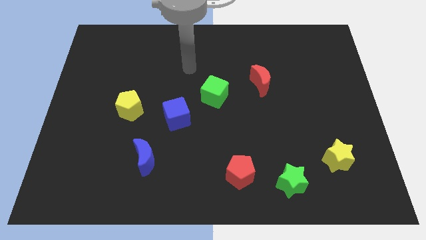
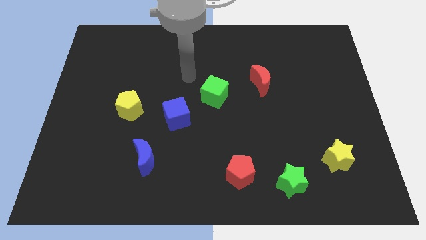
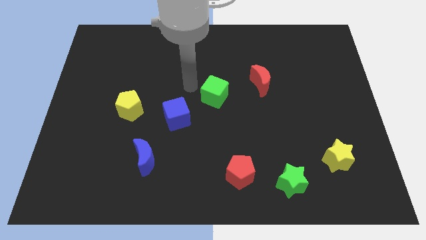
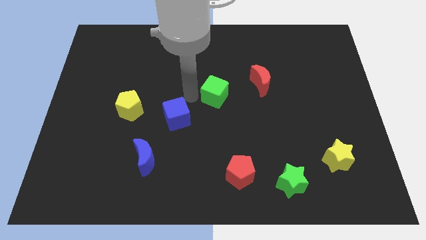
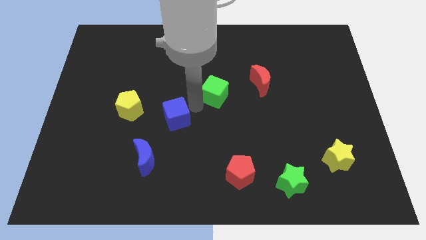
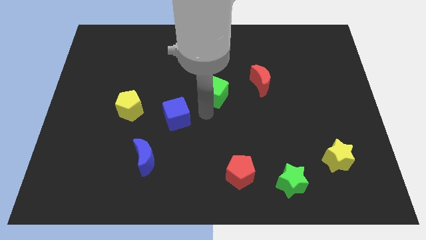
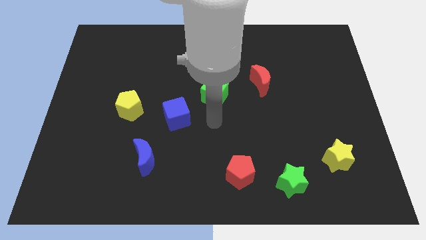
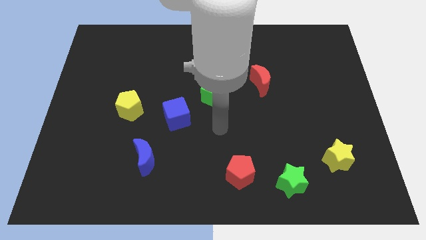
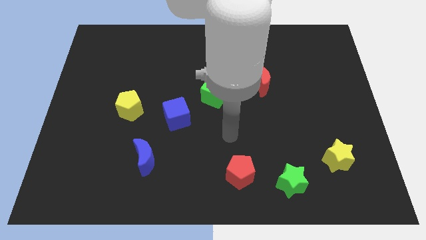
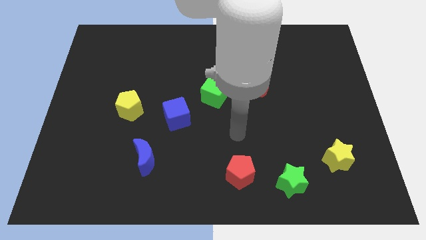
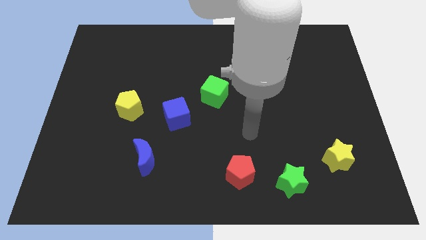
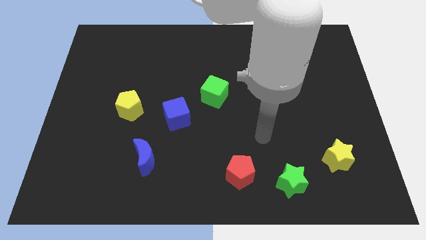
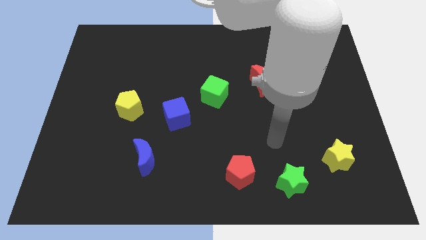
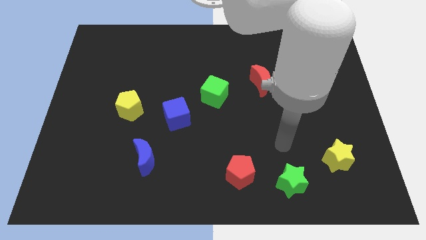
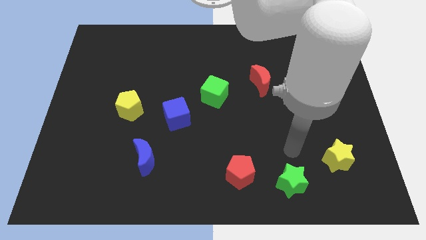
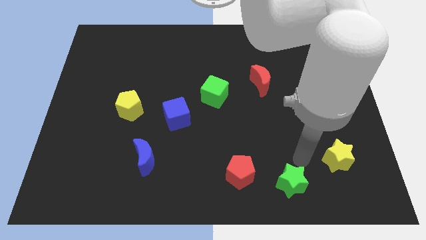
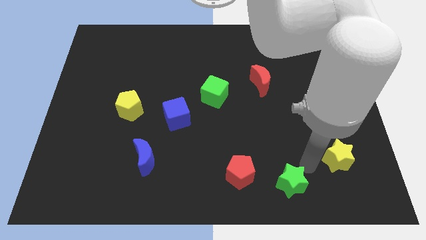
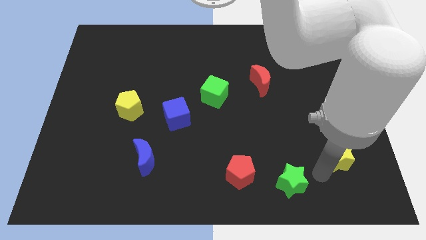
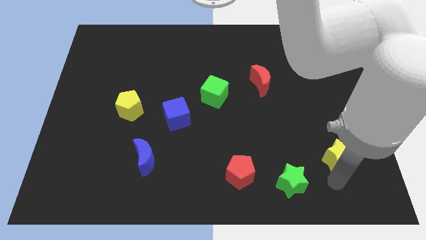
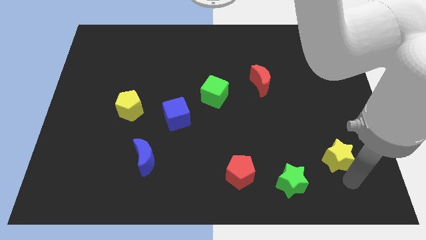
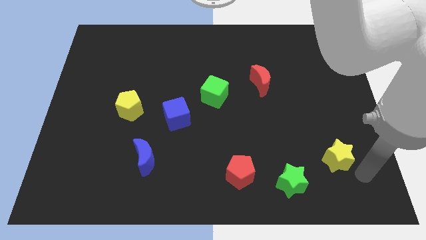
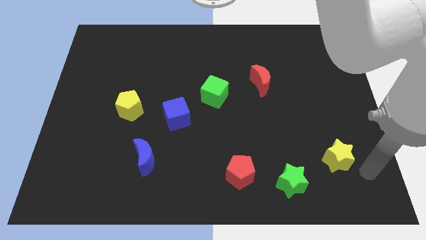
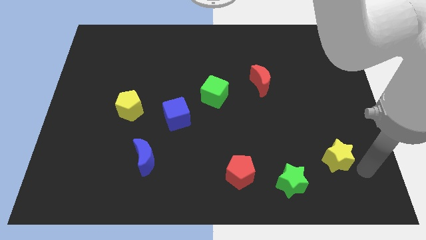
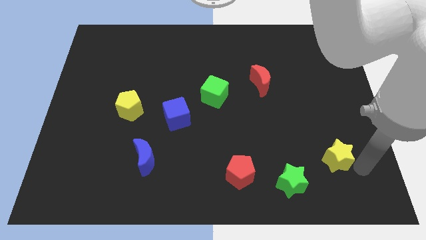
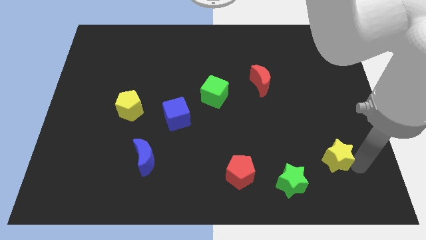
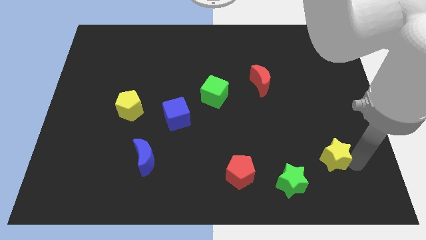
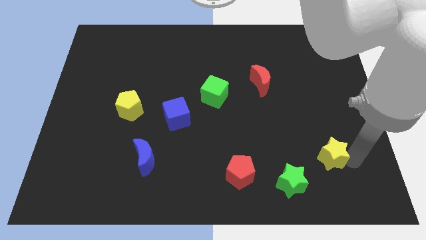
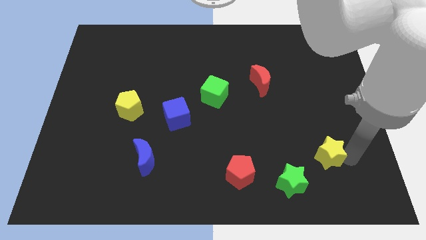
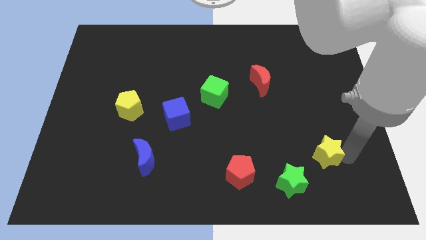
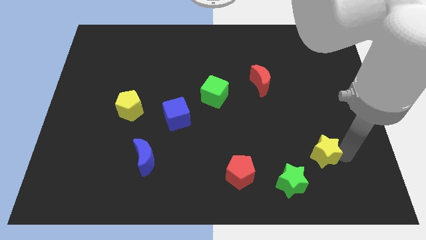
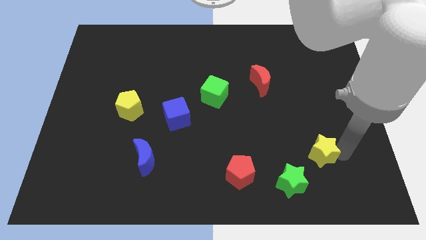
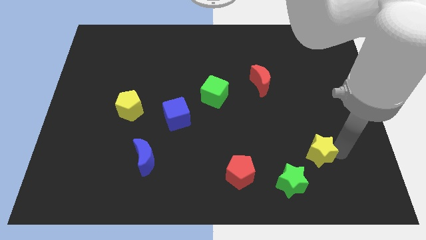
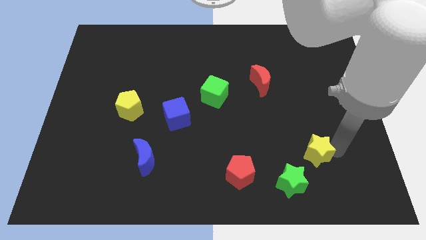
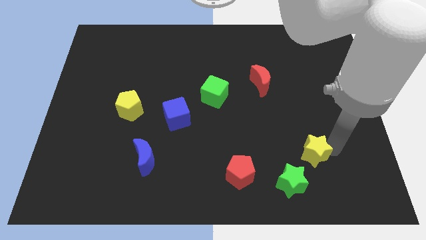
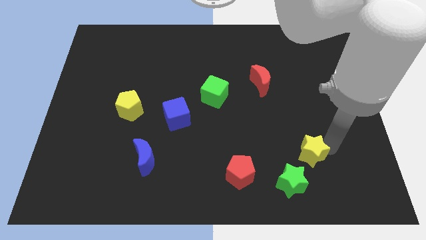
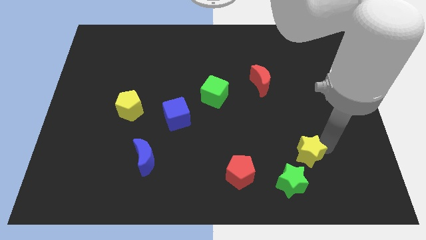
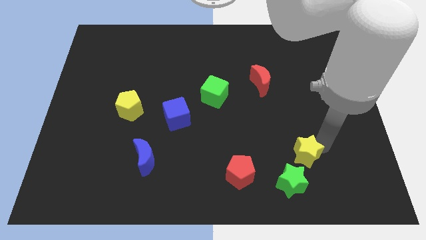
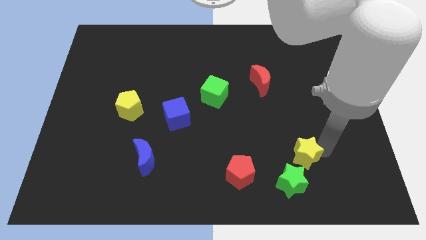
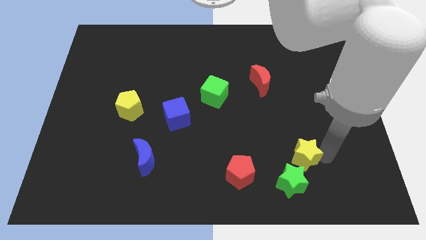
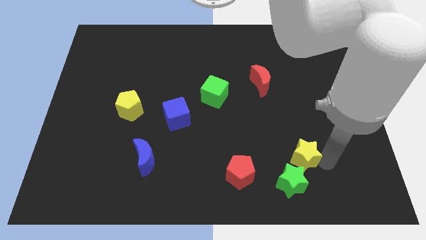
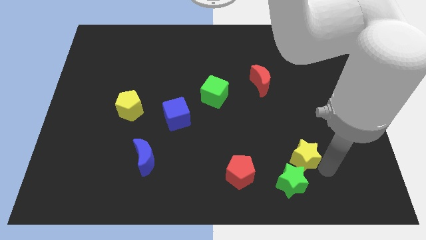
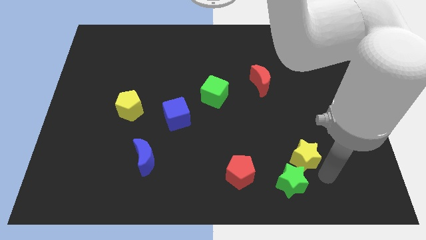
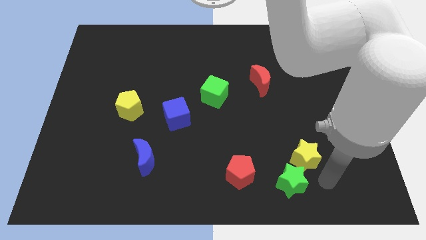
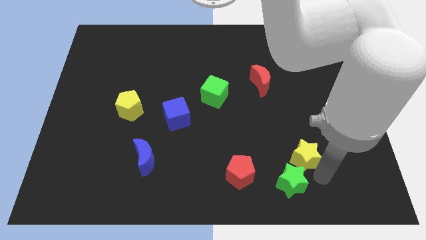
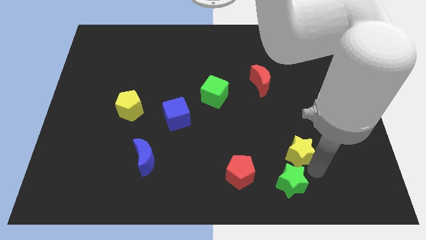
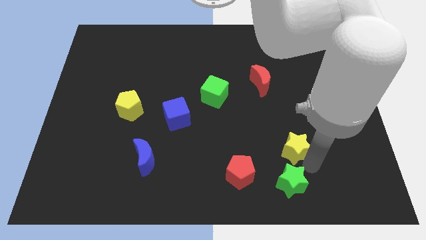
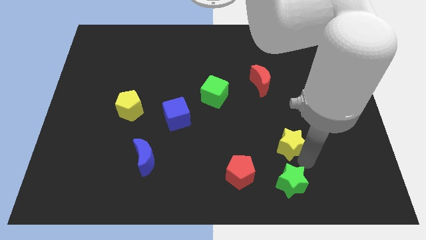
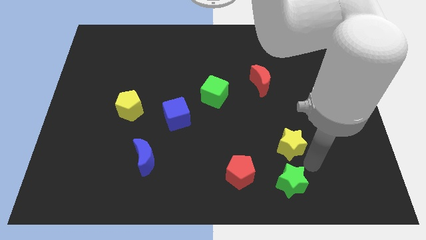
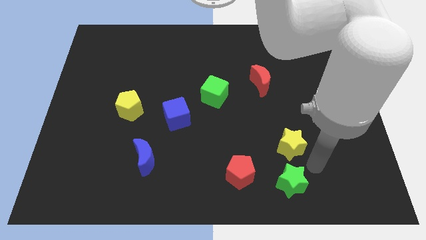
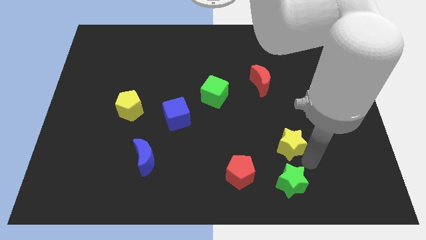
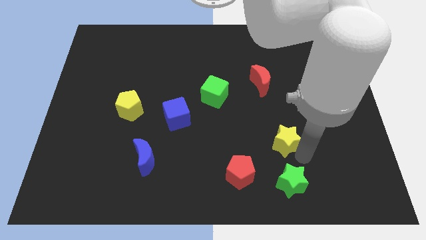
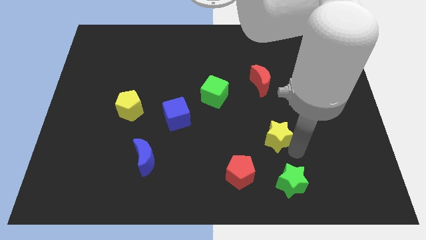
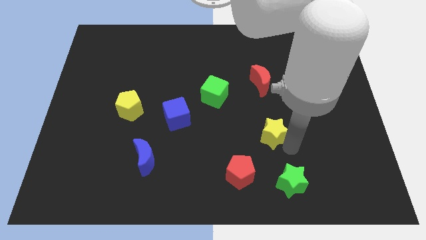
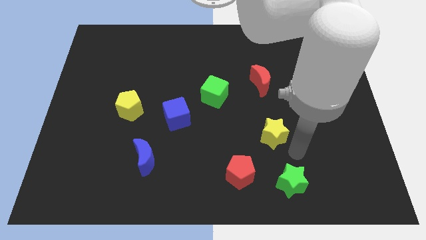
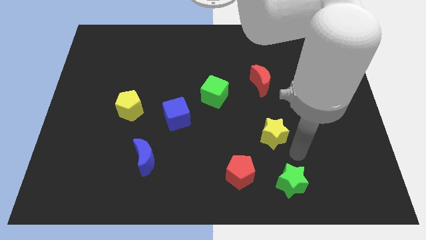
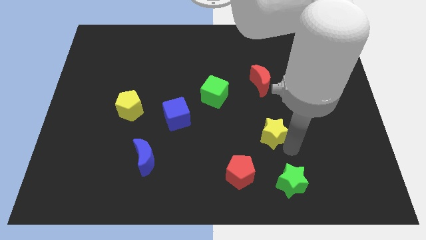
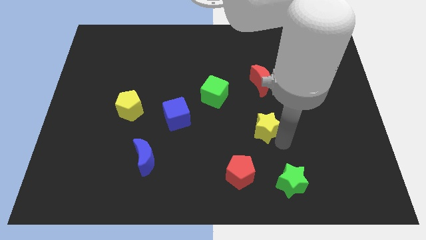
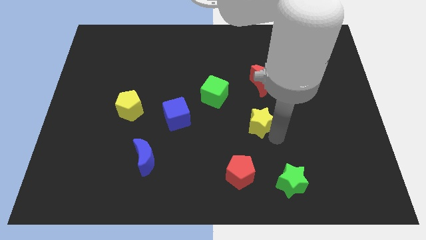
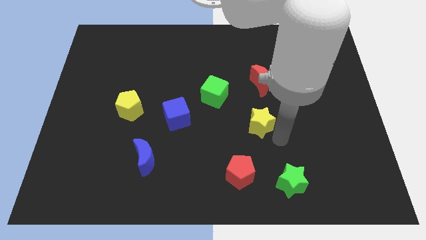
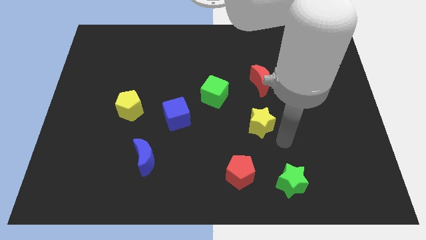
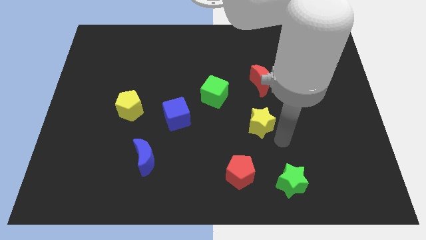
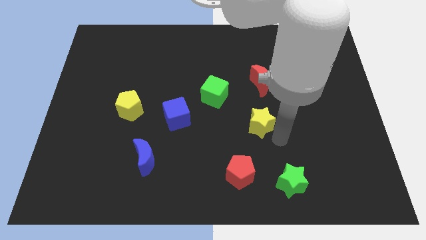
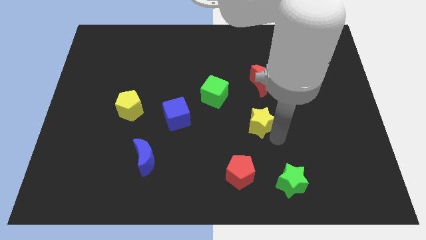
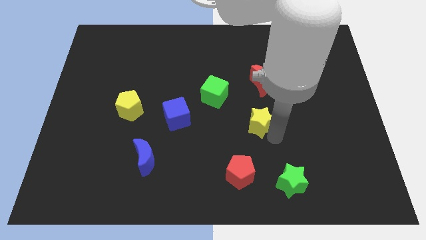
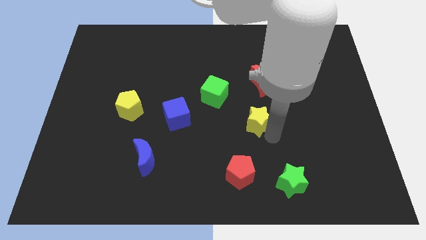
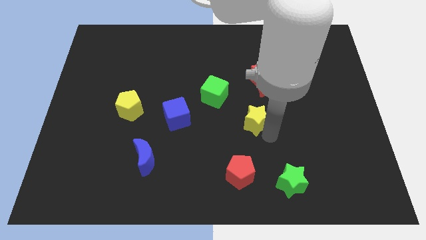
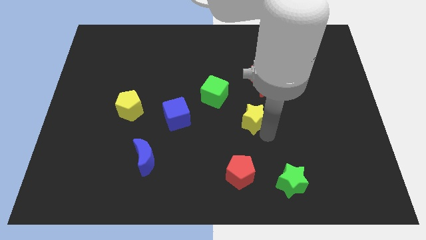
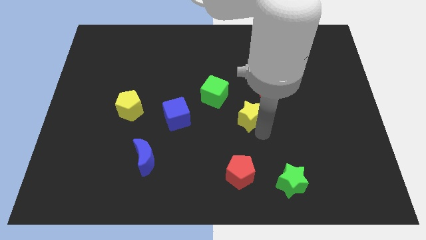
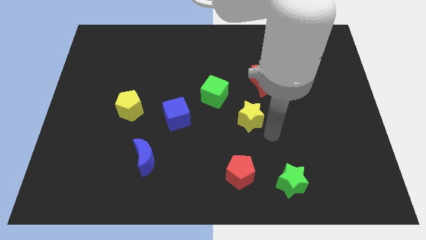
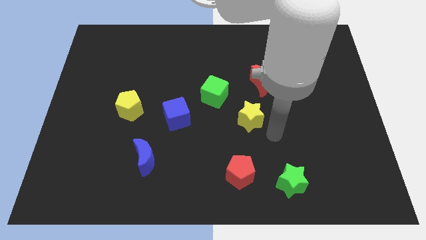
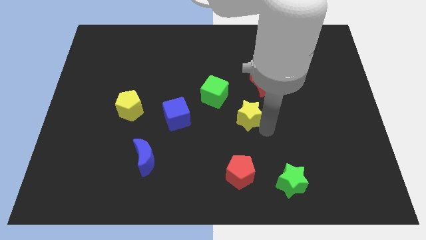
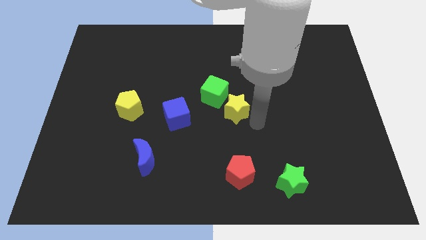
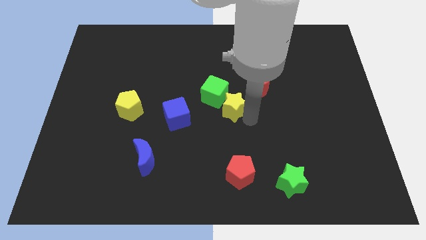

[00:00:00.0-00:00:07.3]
slide the yellow star to the green cube

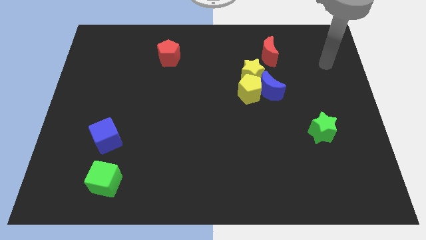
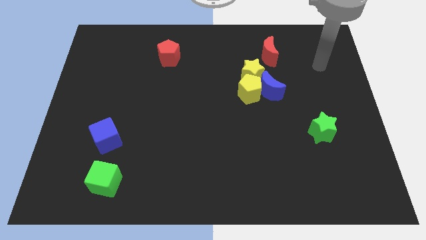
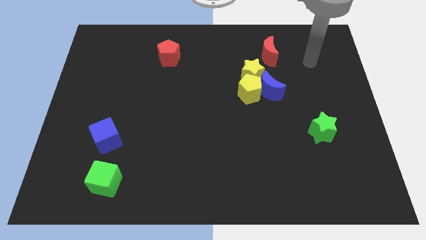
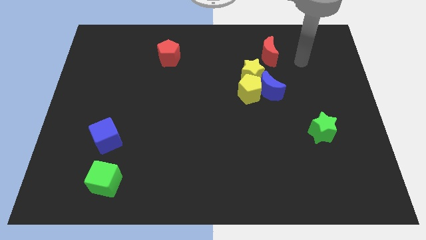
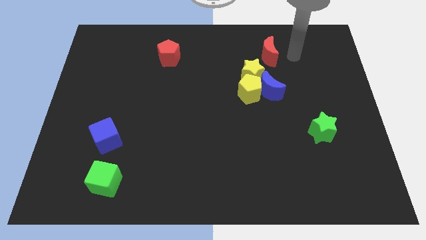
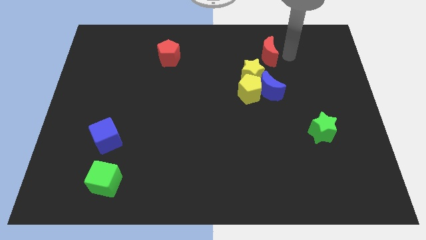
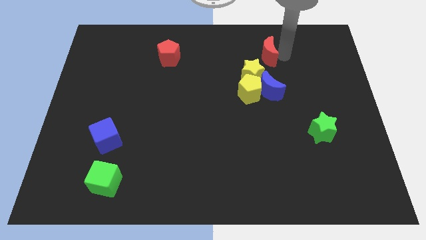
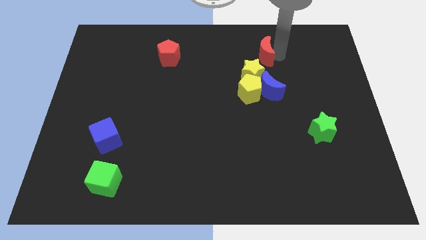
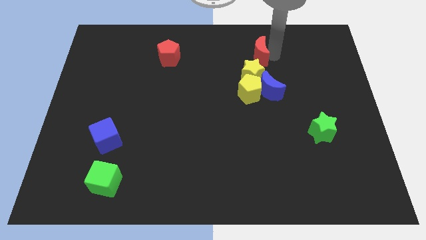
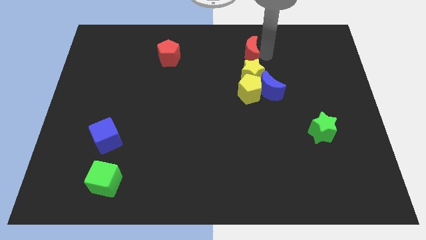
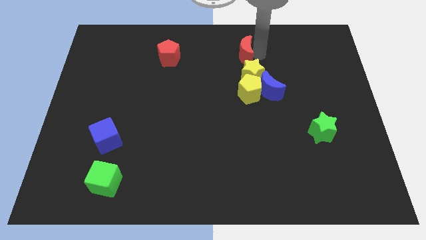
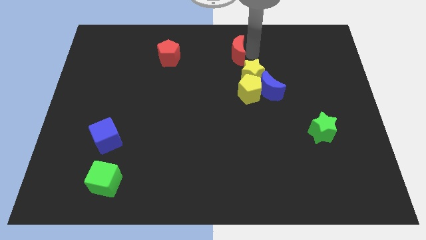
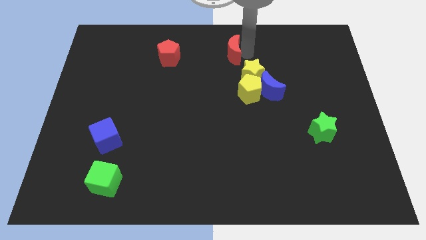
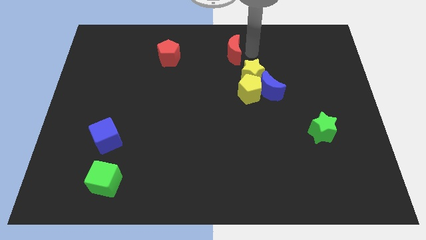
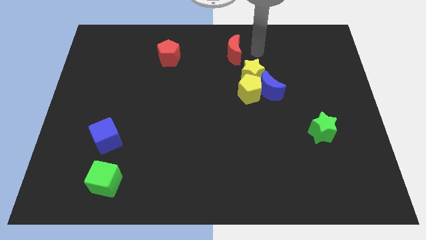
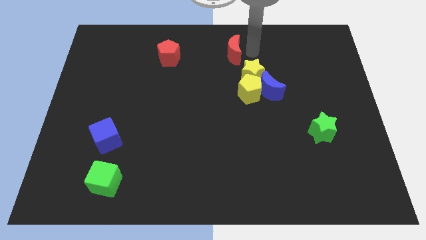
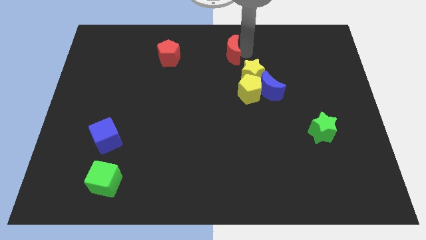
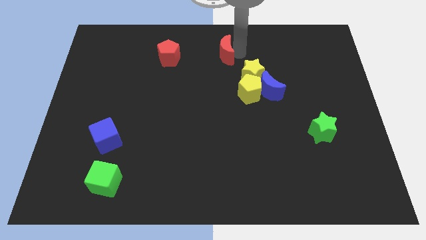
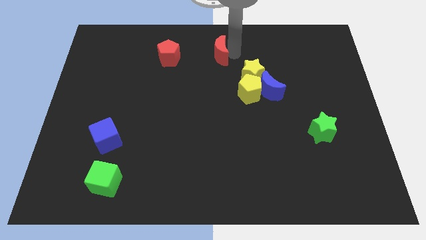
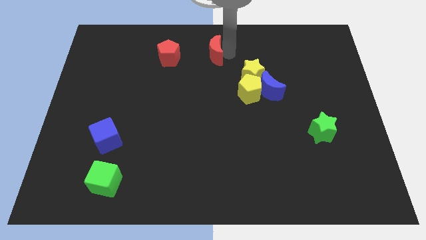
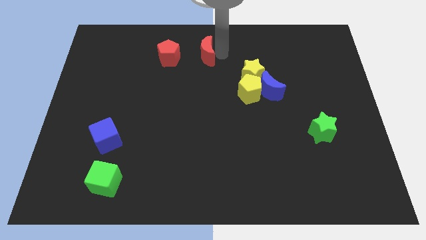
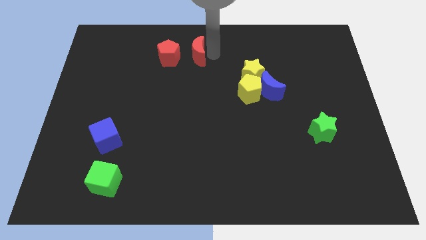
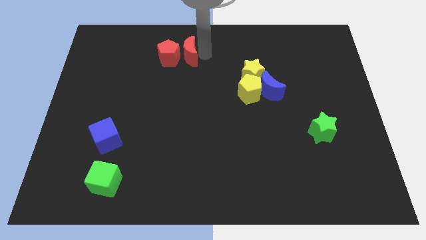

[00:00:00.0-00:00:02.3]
move the red moon to the red pentagon
